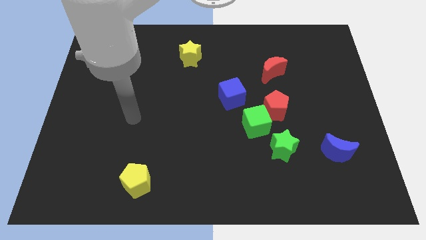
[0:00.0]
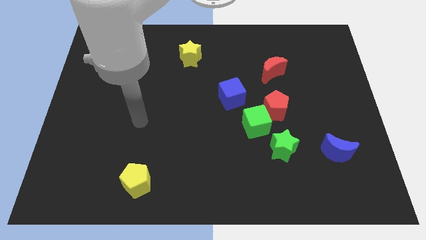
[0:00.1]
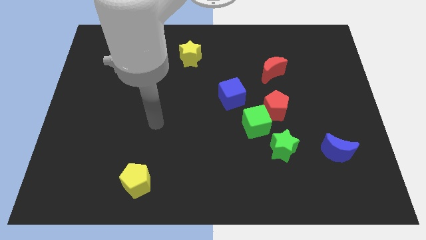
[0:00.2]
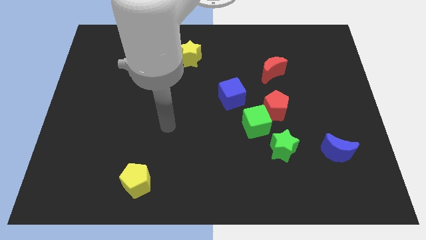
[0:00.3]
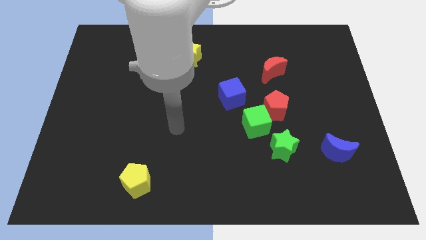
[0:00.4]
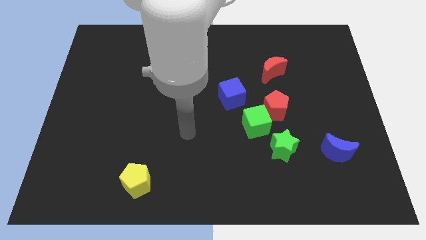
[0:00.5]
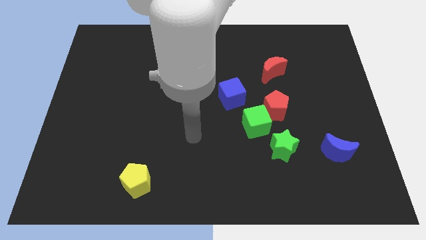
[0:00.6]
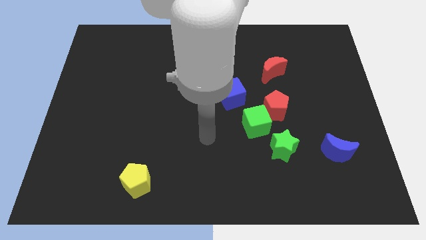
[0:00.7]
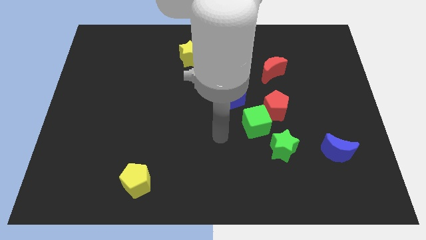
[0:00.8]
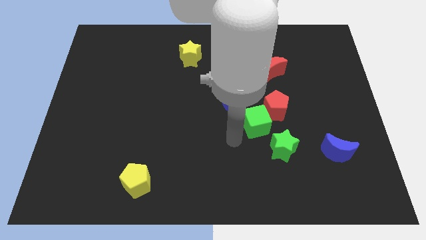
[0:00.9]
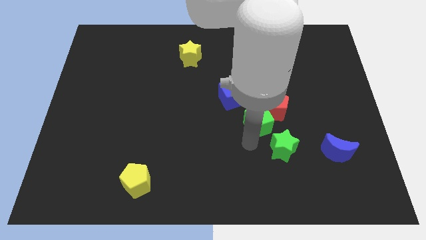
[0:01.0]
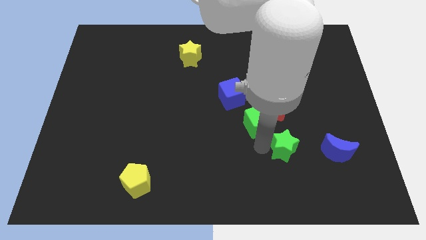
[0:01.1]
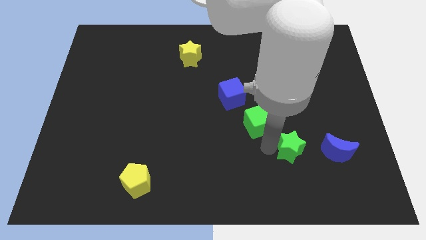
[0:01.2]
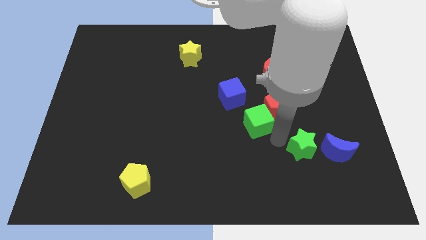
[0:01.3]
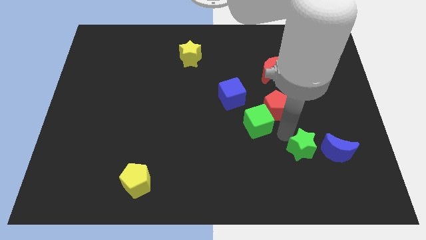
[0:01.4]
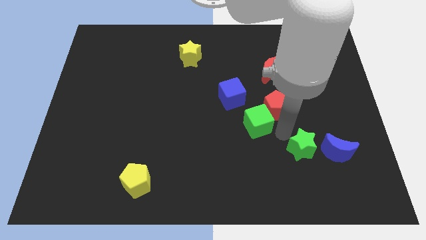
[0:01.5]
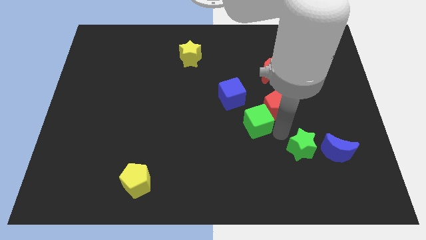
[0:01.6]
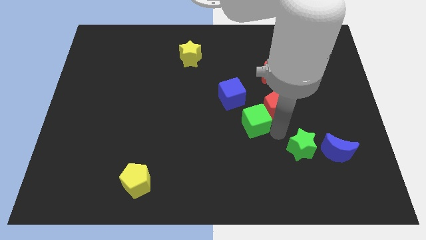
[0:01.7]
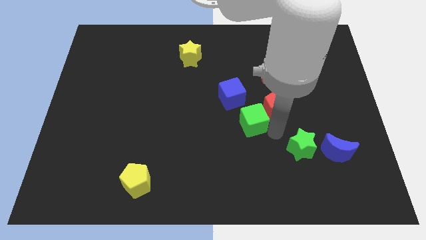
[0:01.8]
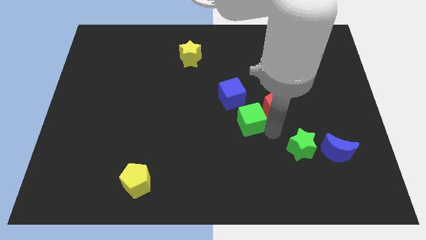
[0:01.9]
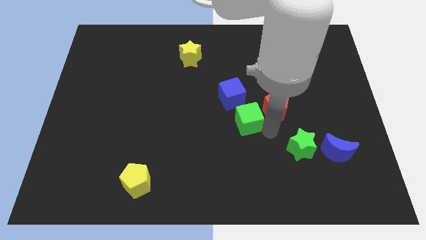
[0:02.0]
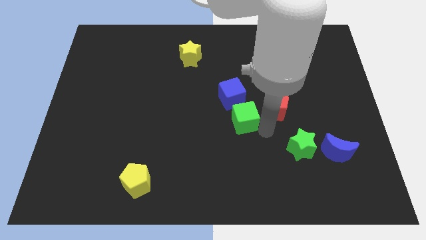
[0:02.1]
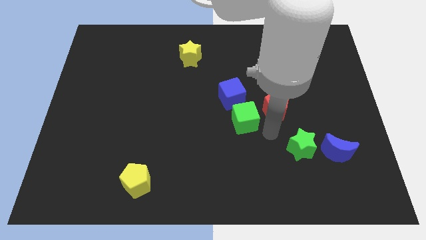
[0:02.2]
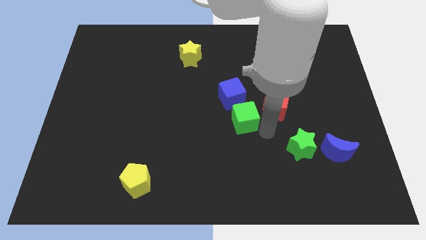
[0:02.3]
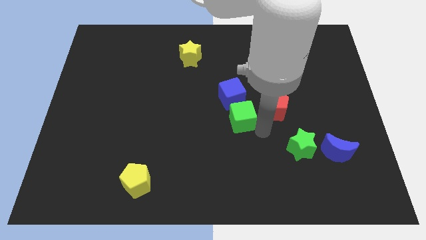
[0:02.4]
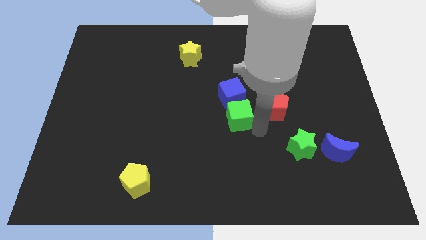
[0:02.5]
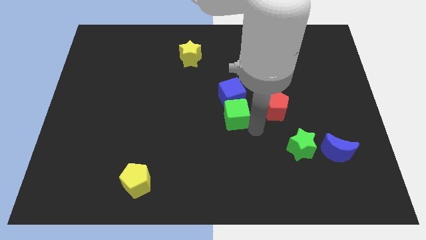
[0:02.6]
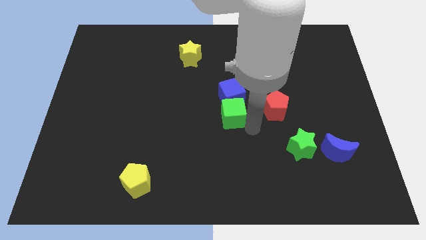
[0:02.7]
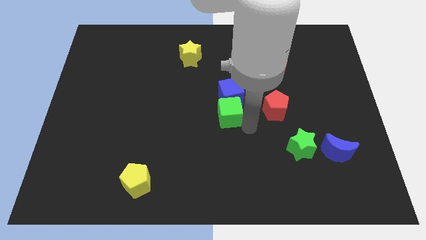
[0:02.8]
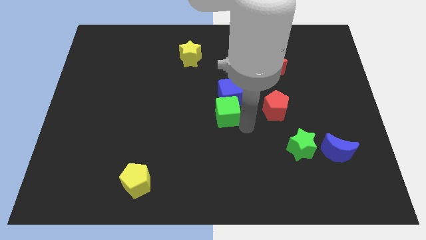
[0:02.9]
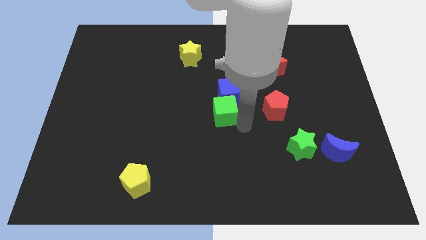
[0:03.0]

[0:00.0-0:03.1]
slightly move the green cube up and left diagonally

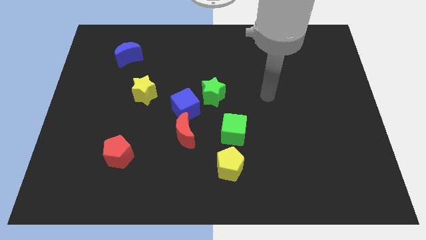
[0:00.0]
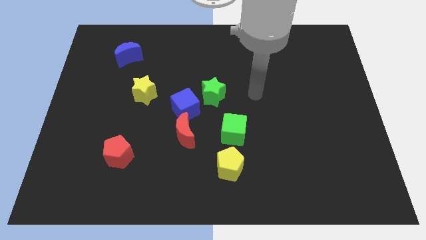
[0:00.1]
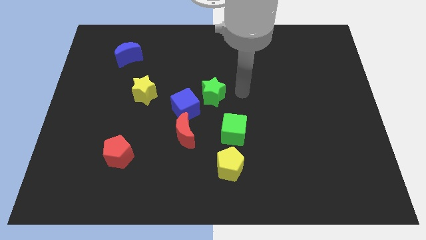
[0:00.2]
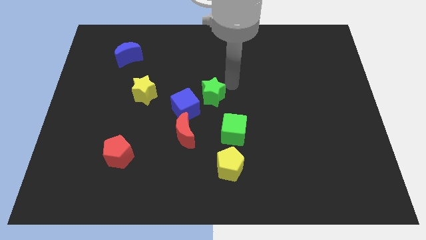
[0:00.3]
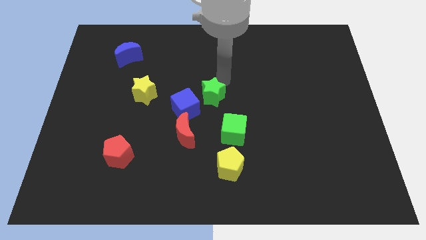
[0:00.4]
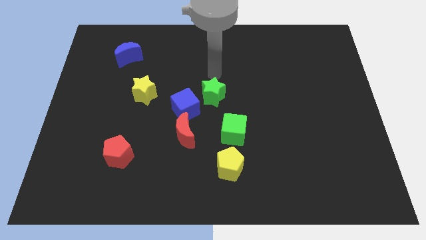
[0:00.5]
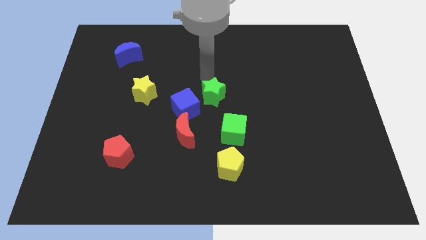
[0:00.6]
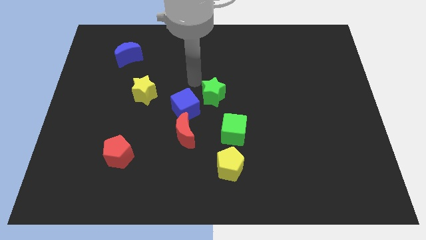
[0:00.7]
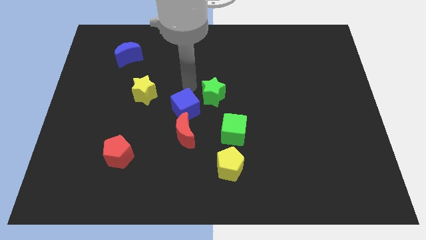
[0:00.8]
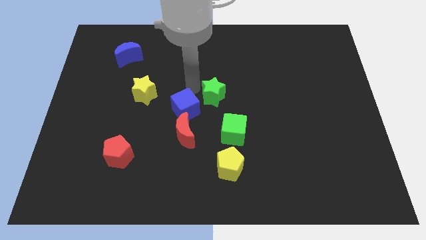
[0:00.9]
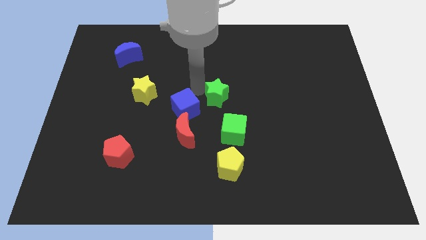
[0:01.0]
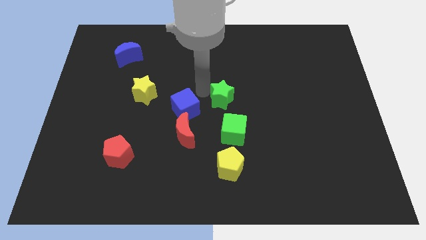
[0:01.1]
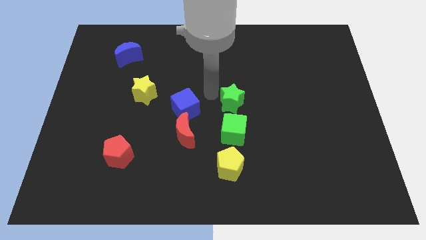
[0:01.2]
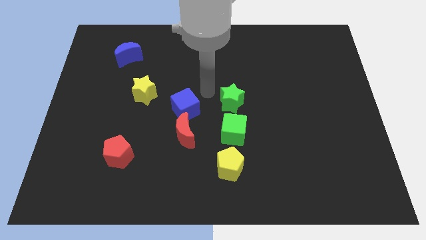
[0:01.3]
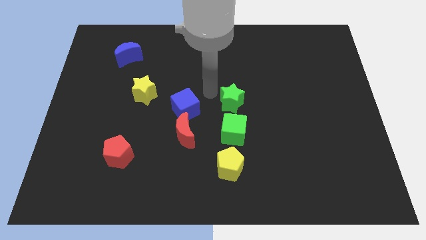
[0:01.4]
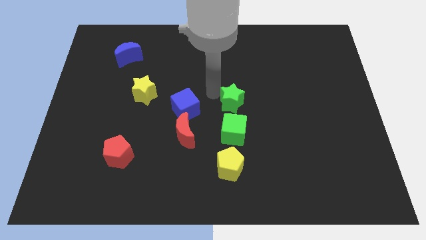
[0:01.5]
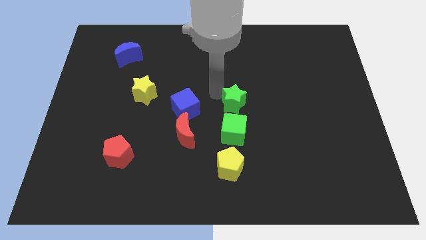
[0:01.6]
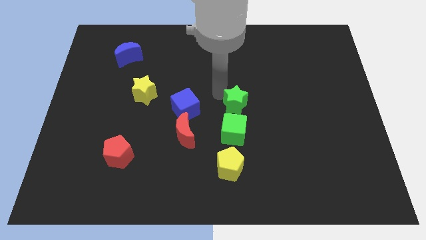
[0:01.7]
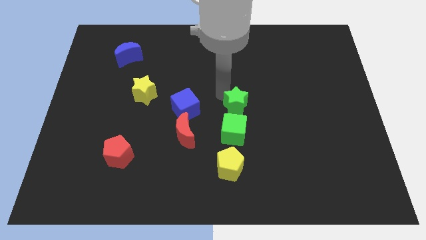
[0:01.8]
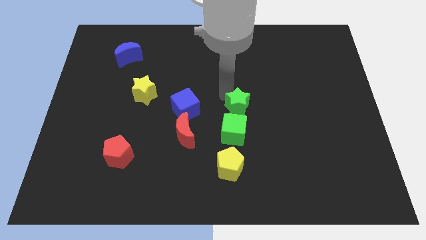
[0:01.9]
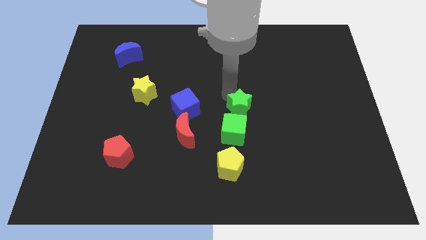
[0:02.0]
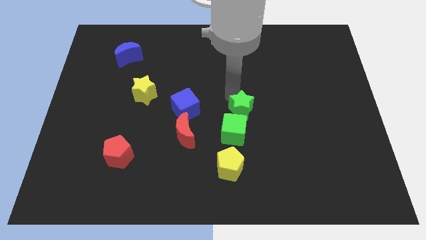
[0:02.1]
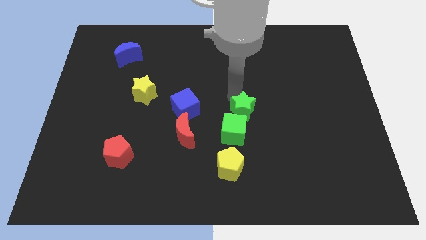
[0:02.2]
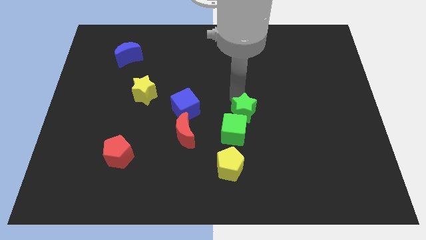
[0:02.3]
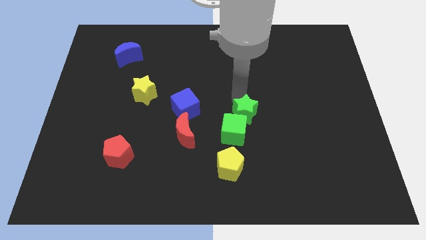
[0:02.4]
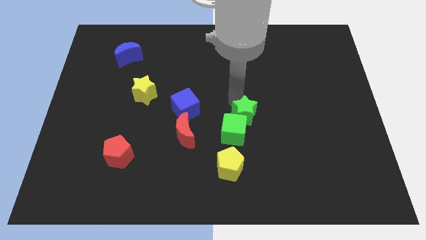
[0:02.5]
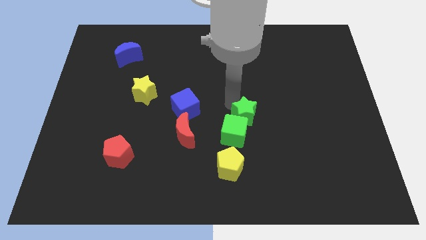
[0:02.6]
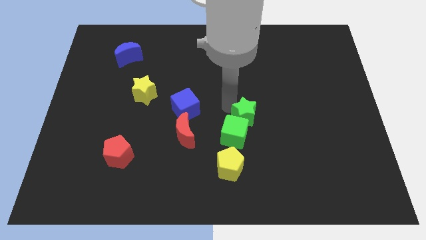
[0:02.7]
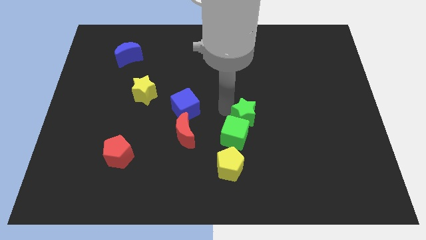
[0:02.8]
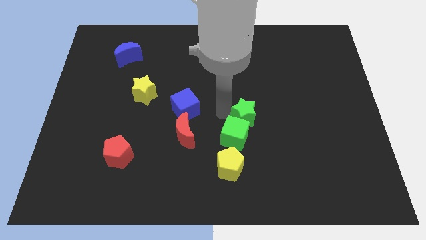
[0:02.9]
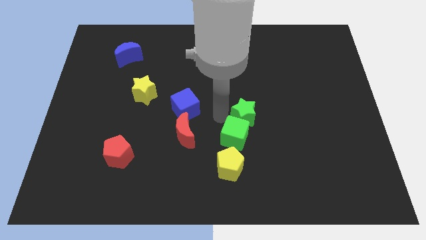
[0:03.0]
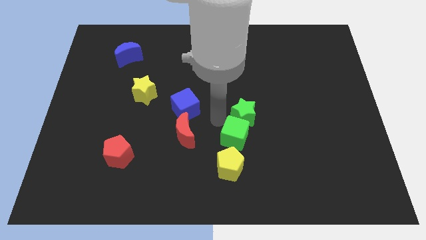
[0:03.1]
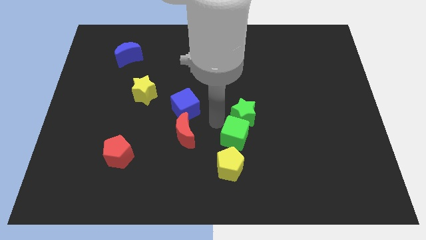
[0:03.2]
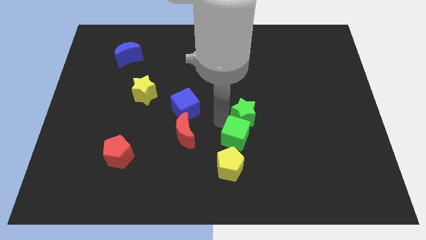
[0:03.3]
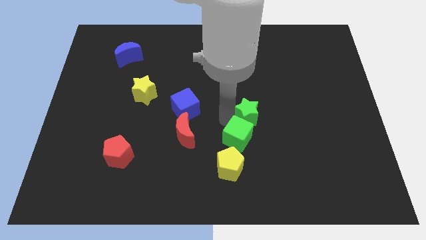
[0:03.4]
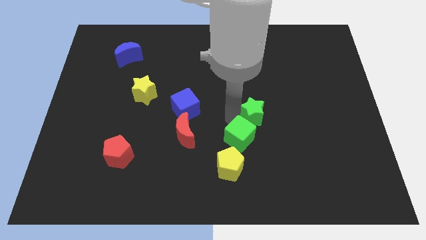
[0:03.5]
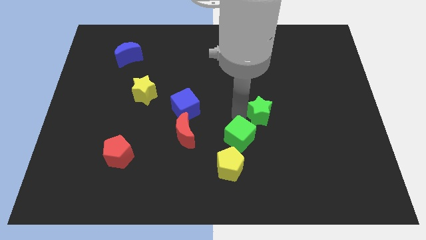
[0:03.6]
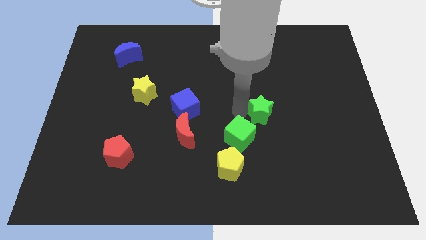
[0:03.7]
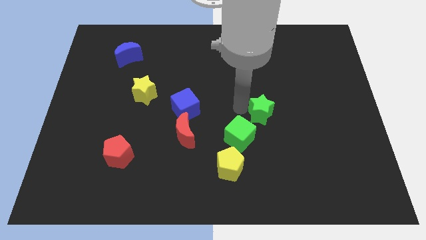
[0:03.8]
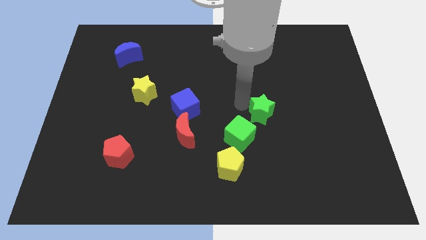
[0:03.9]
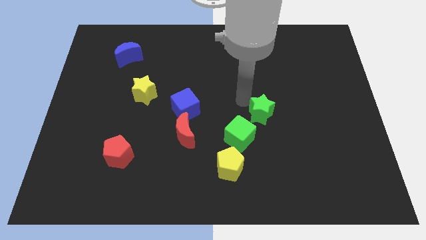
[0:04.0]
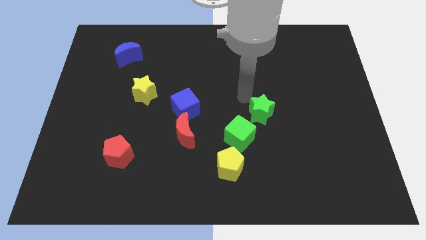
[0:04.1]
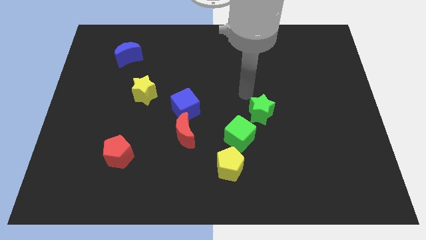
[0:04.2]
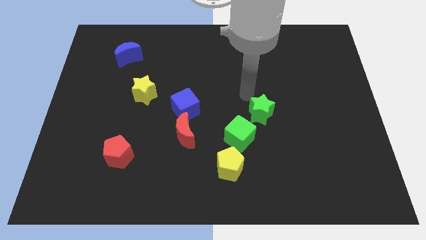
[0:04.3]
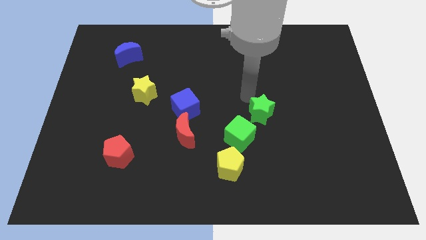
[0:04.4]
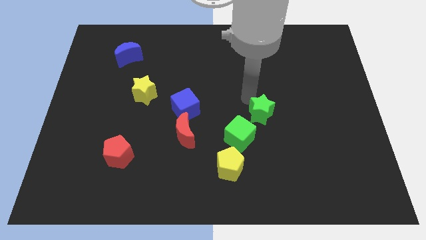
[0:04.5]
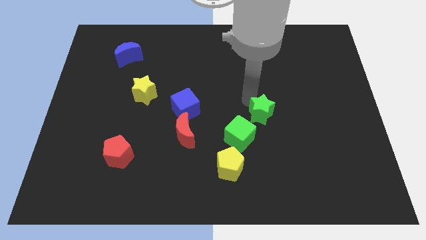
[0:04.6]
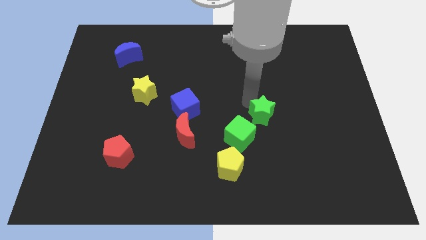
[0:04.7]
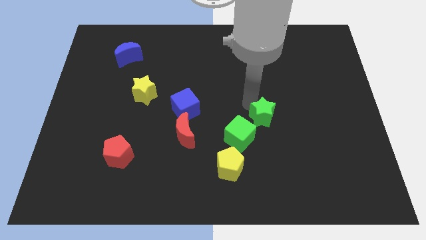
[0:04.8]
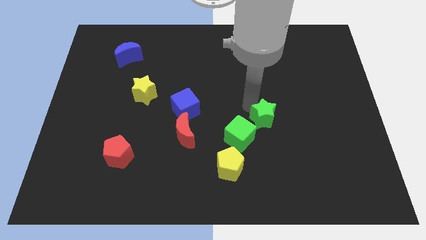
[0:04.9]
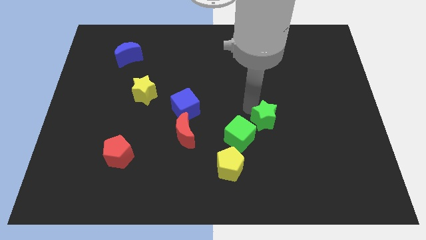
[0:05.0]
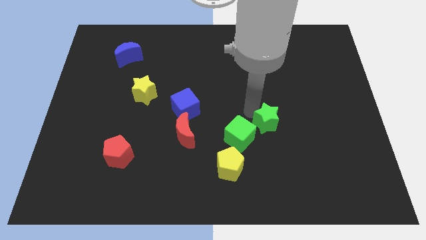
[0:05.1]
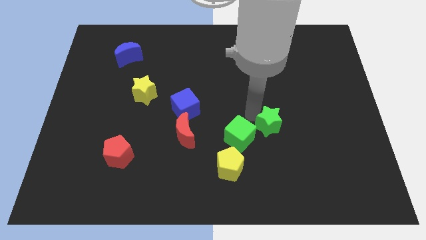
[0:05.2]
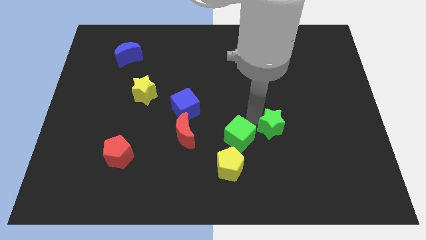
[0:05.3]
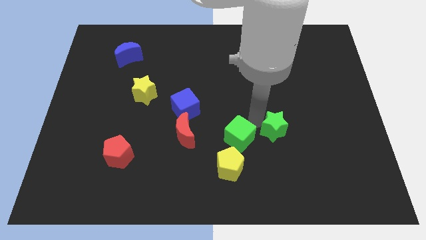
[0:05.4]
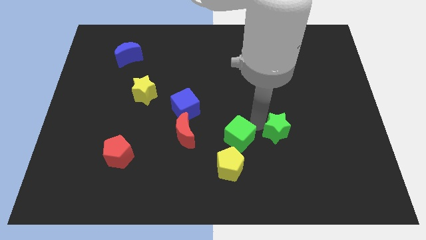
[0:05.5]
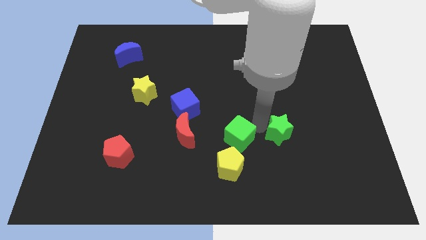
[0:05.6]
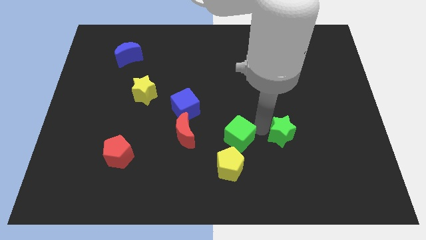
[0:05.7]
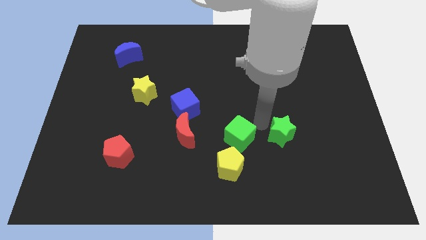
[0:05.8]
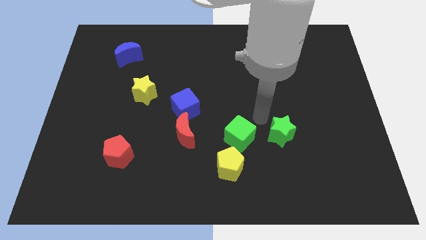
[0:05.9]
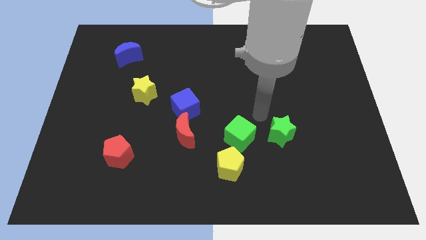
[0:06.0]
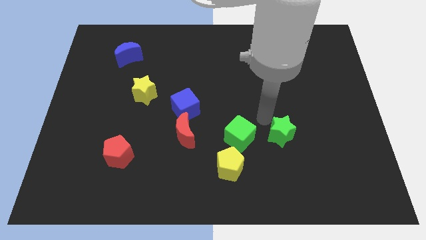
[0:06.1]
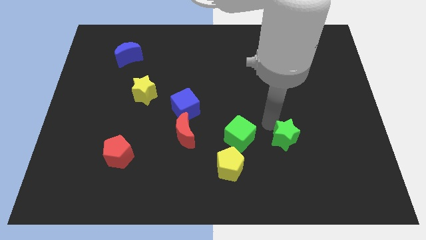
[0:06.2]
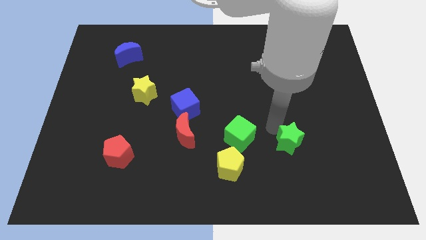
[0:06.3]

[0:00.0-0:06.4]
slide the green star downwards and to the right
